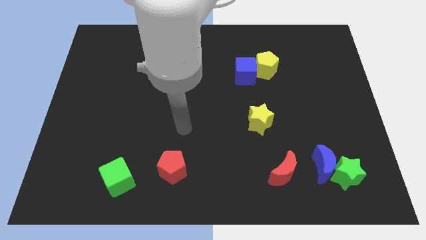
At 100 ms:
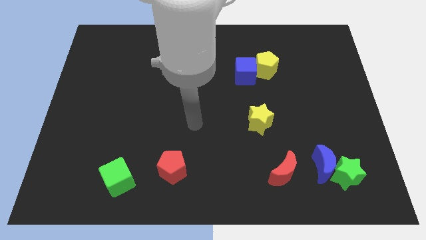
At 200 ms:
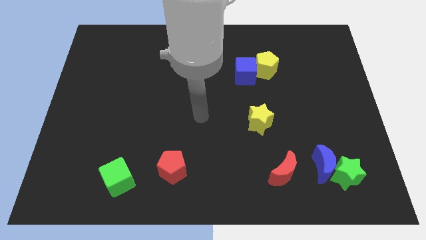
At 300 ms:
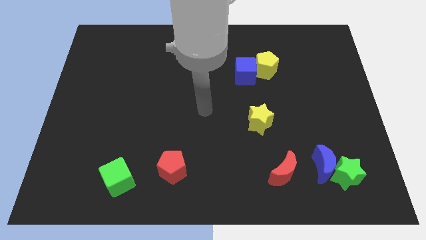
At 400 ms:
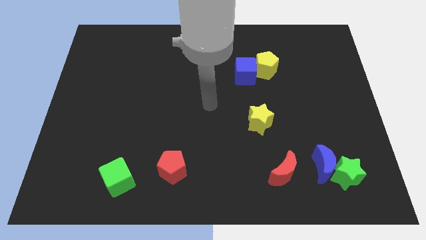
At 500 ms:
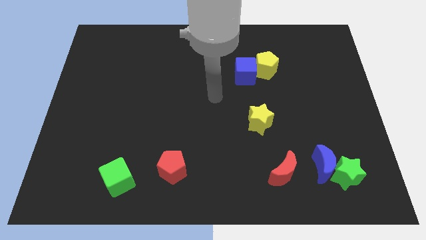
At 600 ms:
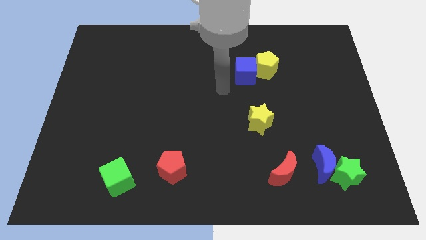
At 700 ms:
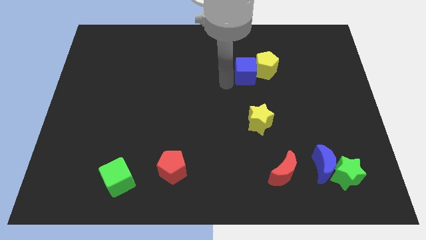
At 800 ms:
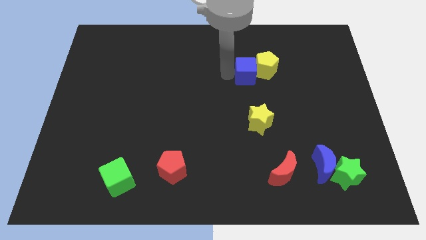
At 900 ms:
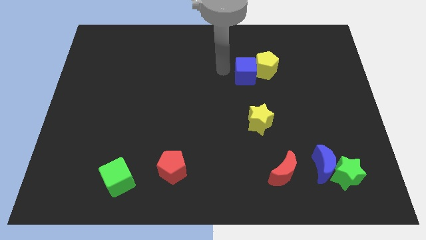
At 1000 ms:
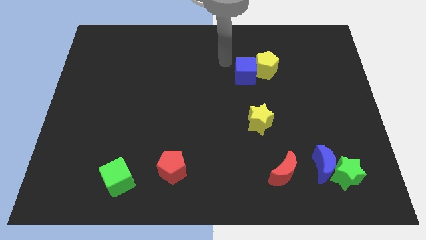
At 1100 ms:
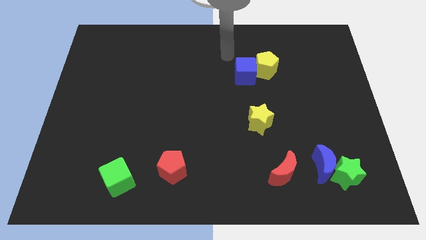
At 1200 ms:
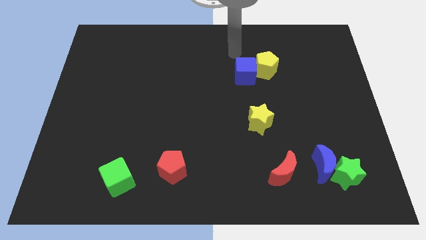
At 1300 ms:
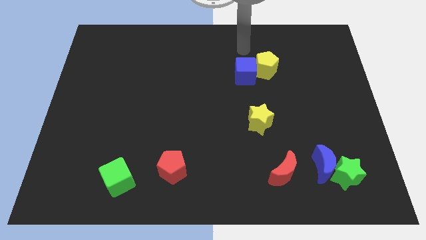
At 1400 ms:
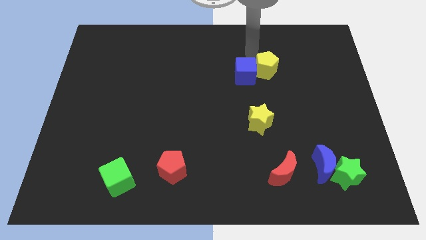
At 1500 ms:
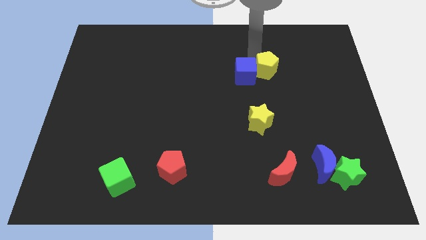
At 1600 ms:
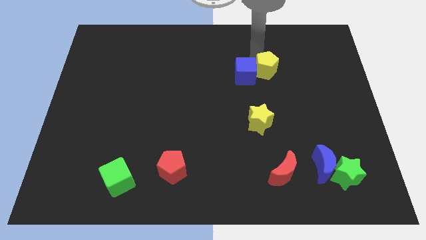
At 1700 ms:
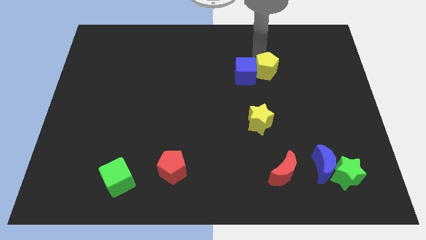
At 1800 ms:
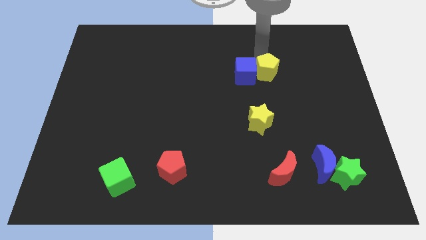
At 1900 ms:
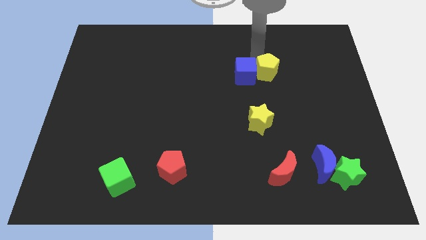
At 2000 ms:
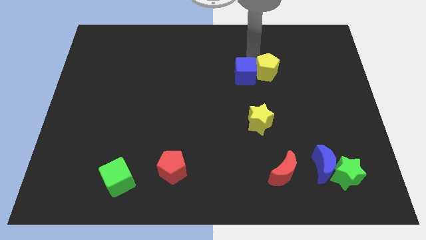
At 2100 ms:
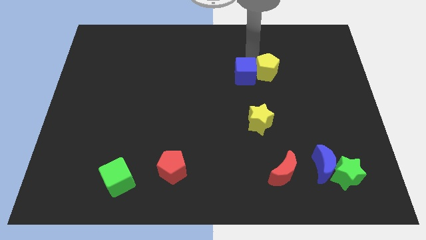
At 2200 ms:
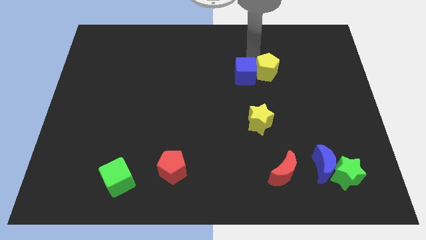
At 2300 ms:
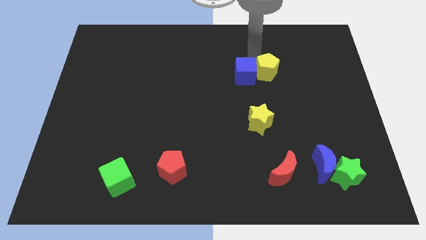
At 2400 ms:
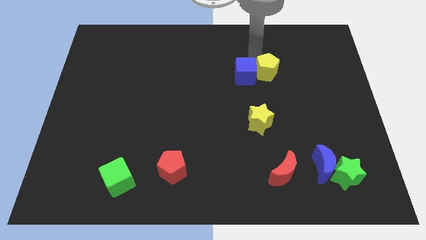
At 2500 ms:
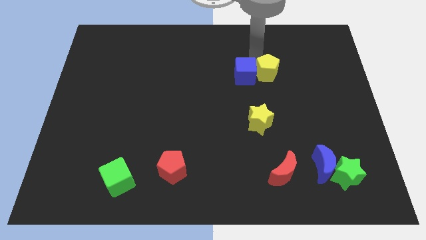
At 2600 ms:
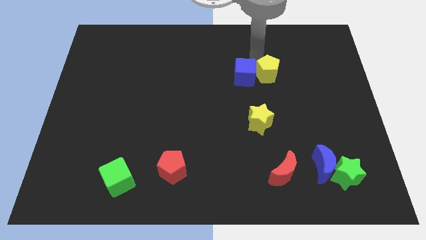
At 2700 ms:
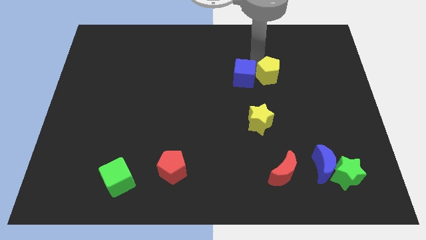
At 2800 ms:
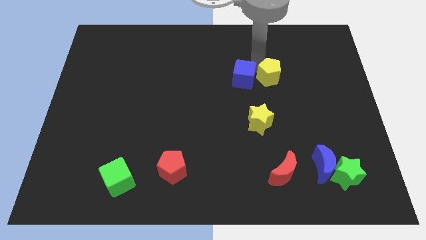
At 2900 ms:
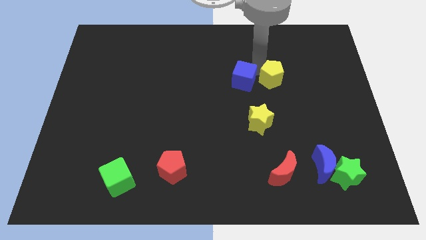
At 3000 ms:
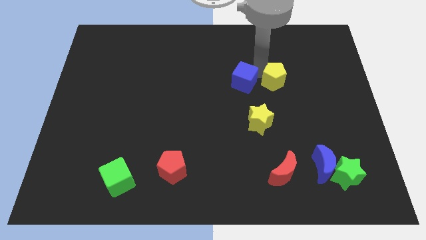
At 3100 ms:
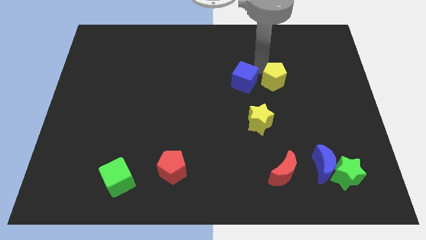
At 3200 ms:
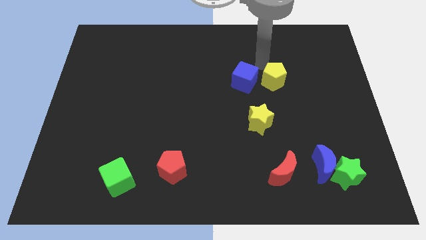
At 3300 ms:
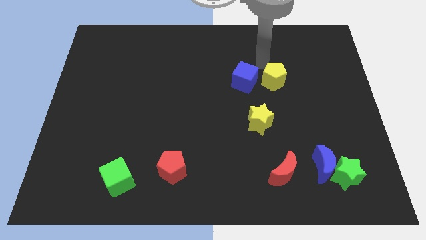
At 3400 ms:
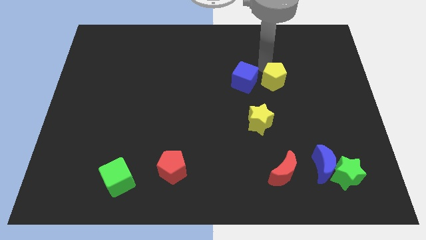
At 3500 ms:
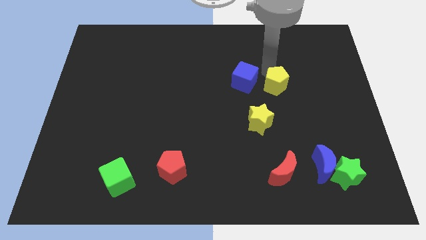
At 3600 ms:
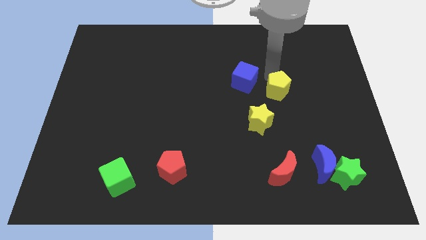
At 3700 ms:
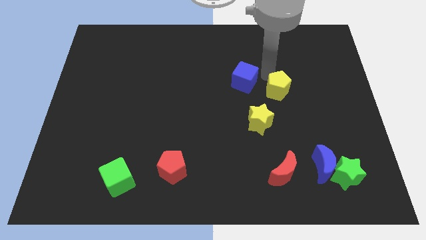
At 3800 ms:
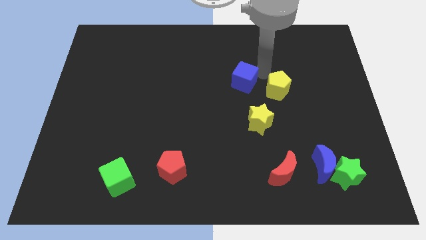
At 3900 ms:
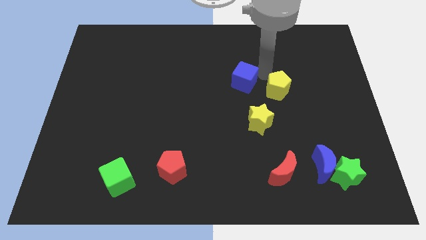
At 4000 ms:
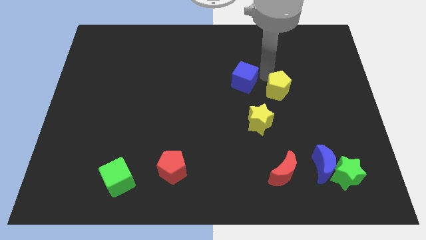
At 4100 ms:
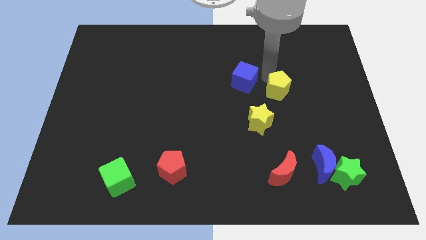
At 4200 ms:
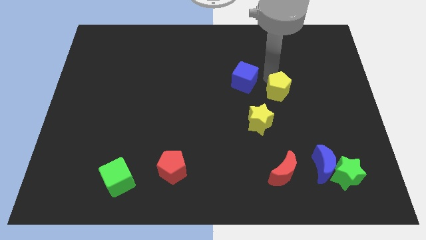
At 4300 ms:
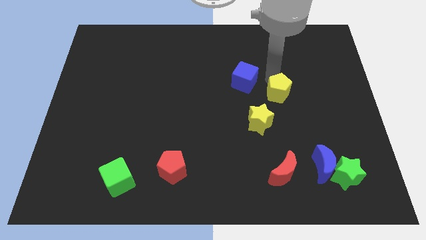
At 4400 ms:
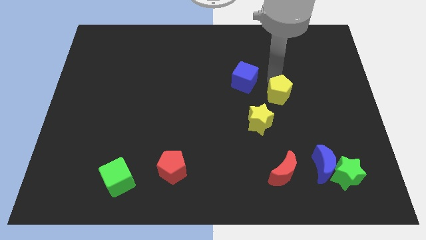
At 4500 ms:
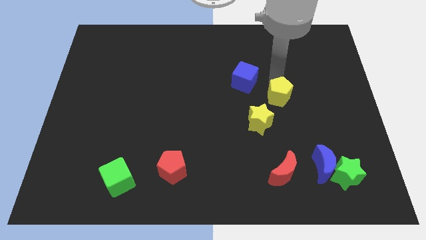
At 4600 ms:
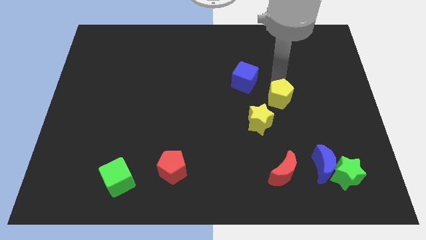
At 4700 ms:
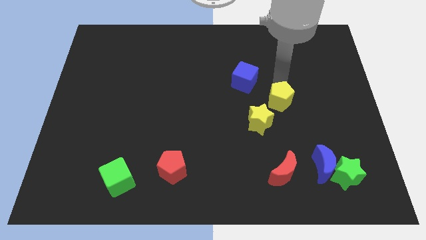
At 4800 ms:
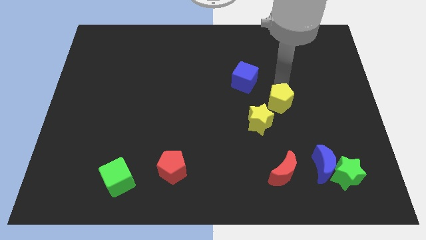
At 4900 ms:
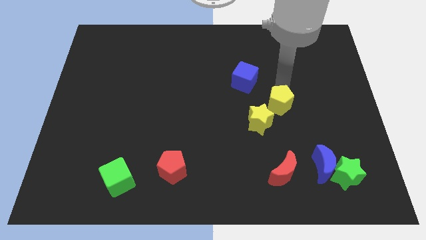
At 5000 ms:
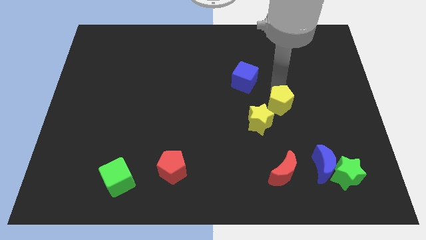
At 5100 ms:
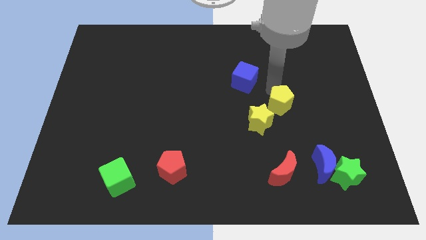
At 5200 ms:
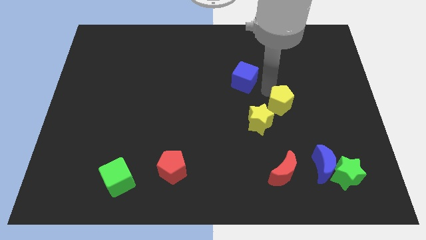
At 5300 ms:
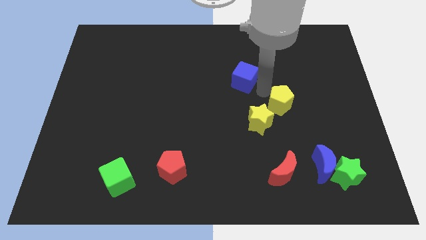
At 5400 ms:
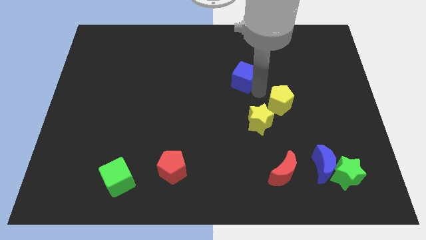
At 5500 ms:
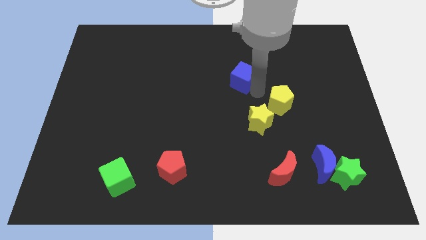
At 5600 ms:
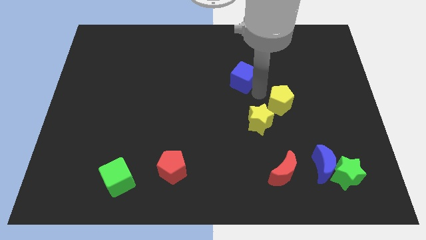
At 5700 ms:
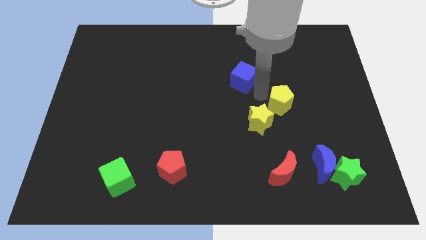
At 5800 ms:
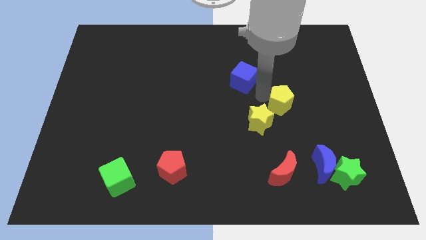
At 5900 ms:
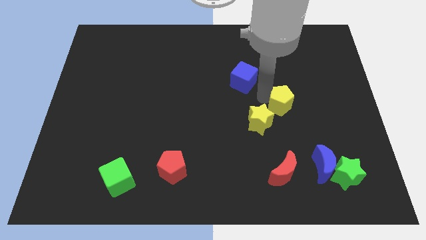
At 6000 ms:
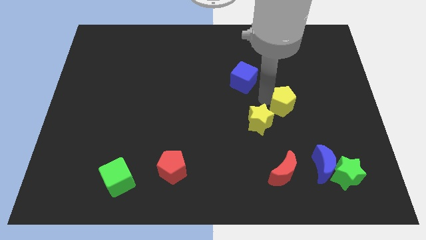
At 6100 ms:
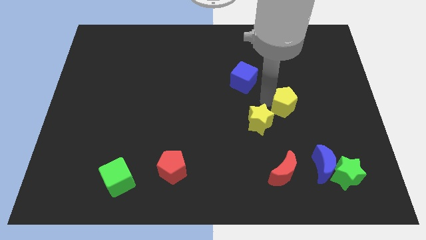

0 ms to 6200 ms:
slide the yellow pentagon right of the yellow star

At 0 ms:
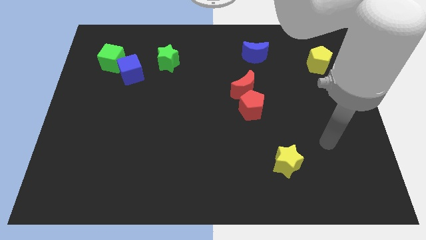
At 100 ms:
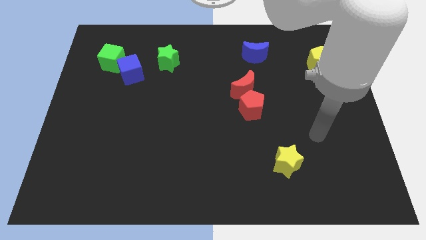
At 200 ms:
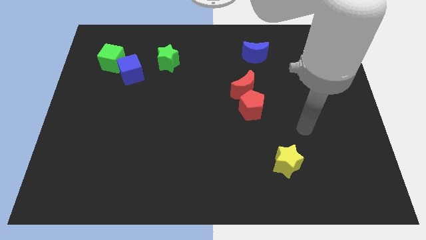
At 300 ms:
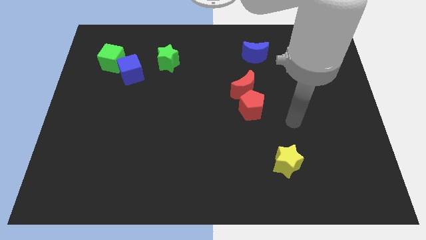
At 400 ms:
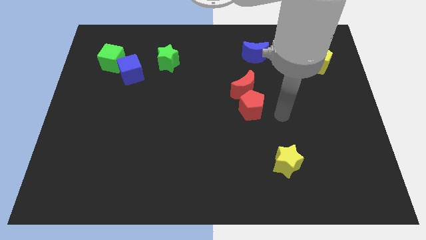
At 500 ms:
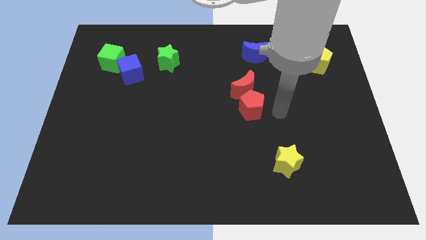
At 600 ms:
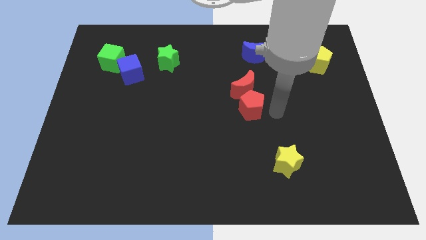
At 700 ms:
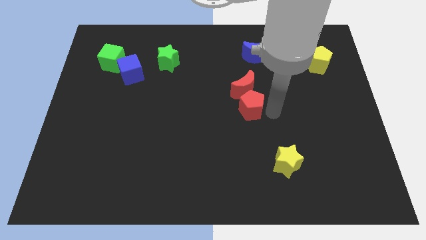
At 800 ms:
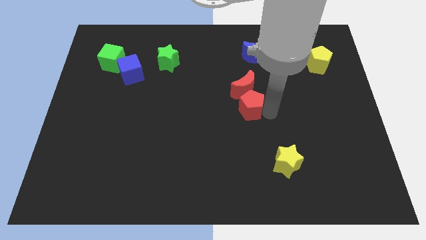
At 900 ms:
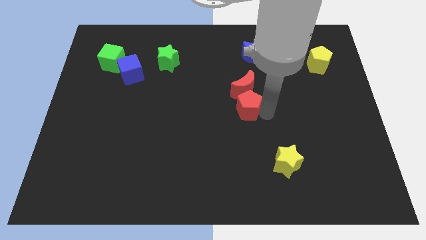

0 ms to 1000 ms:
move the red pentagon to the bottom left side of the red moon
